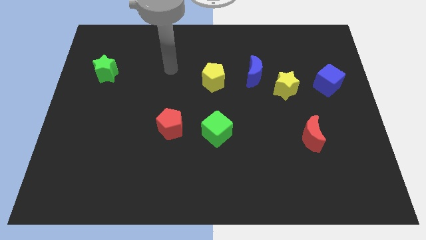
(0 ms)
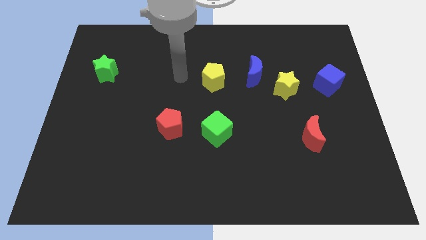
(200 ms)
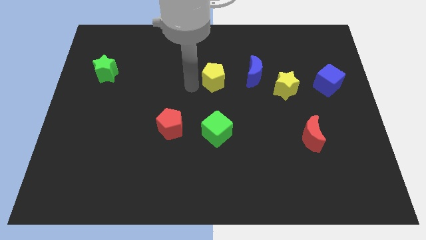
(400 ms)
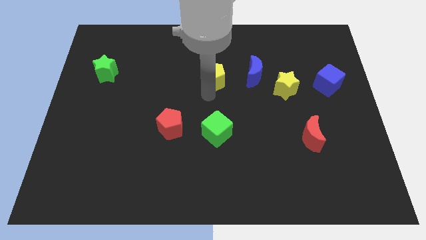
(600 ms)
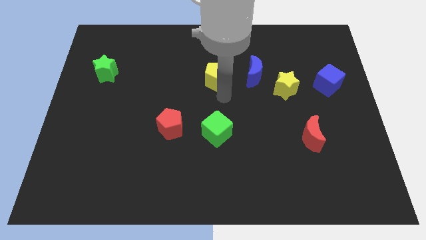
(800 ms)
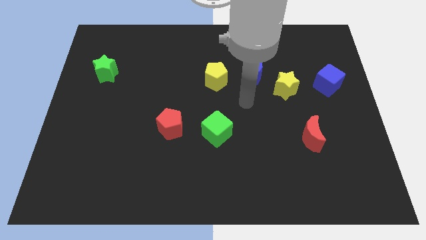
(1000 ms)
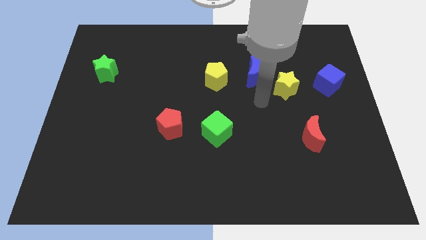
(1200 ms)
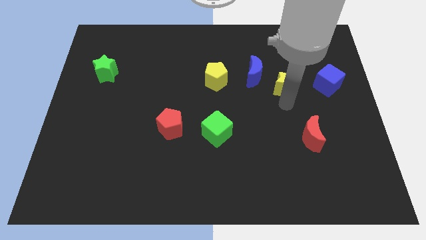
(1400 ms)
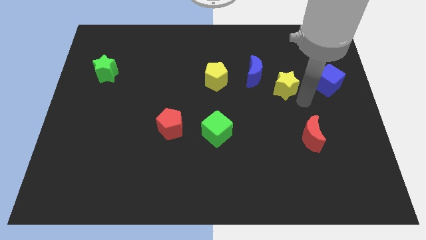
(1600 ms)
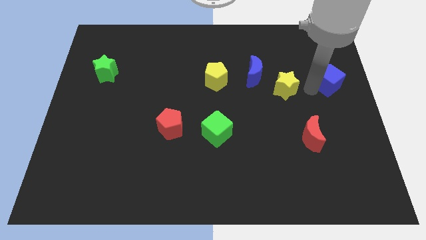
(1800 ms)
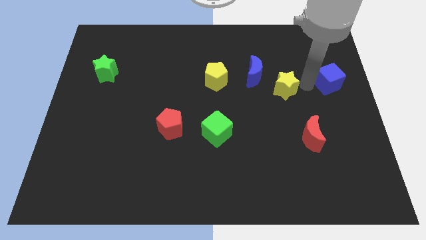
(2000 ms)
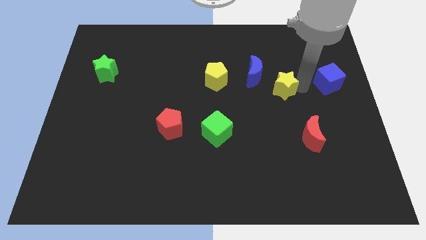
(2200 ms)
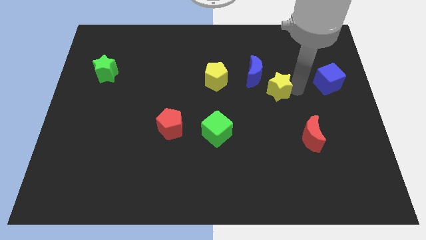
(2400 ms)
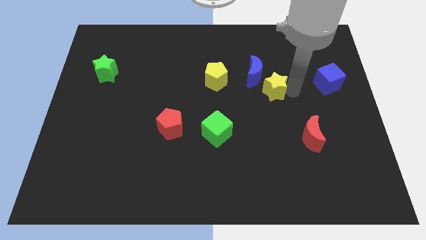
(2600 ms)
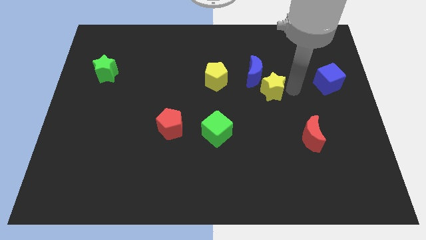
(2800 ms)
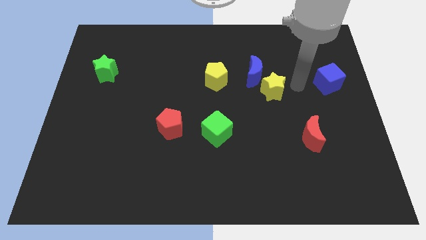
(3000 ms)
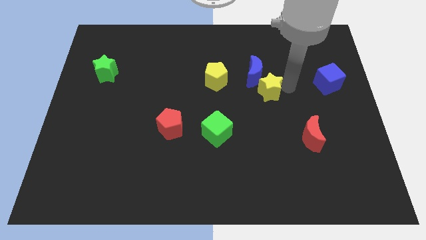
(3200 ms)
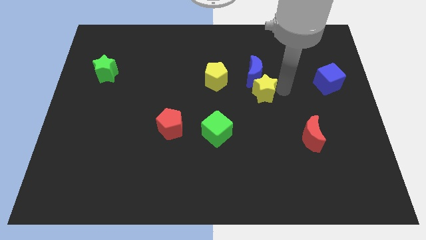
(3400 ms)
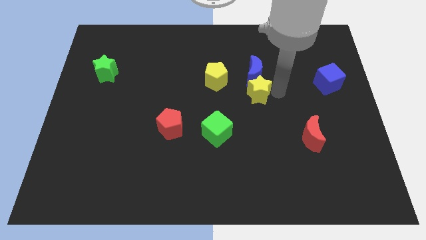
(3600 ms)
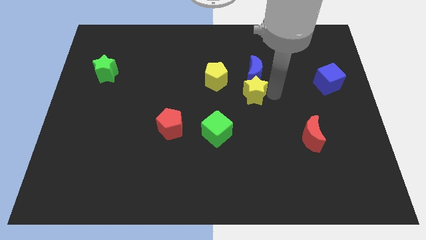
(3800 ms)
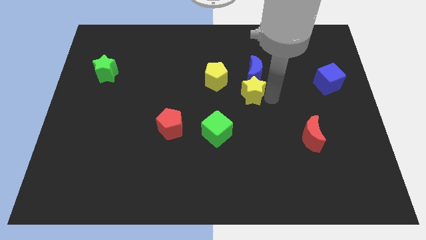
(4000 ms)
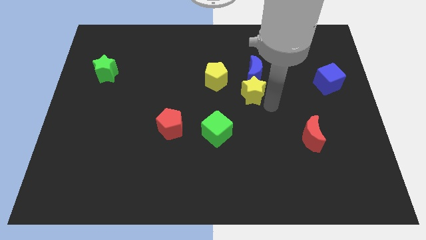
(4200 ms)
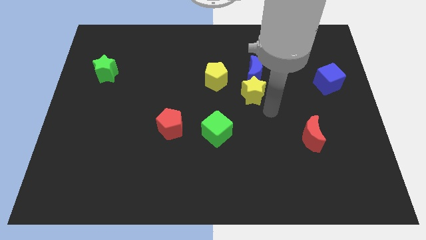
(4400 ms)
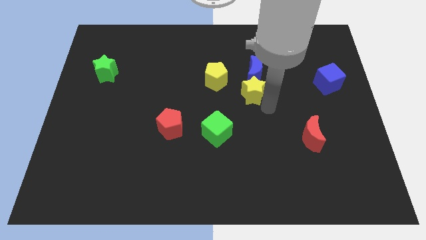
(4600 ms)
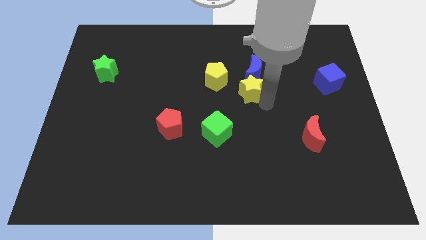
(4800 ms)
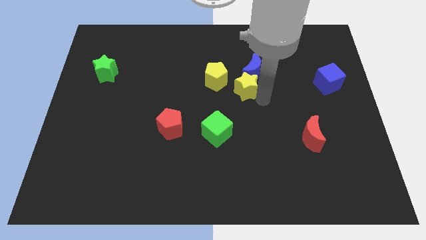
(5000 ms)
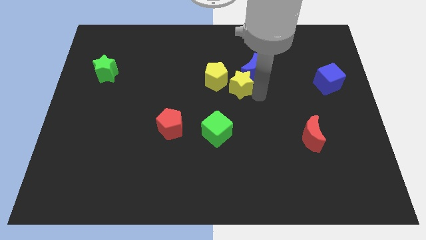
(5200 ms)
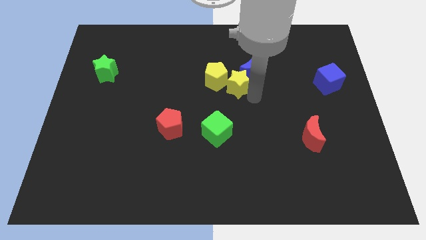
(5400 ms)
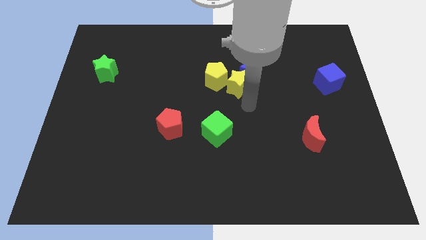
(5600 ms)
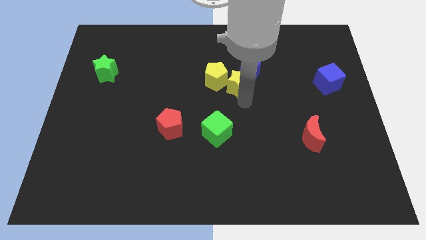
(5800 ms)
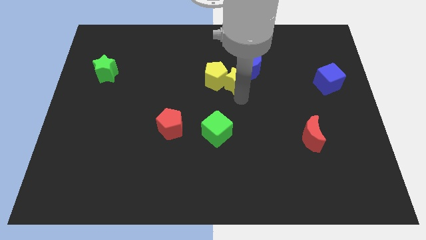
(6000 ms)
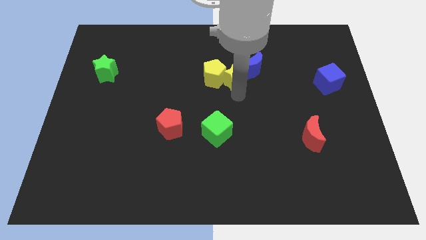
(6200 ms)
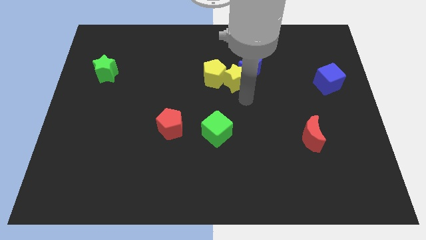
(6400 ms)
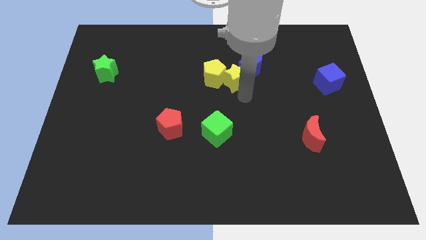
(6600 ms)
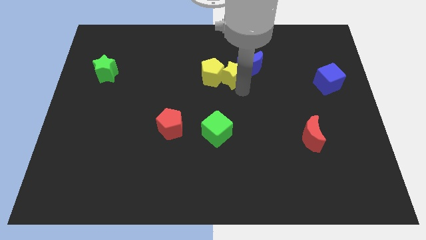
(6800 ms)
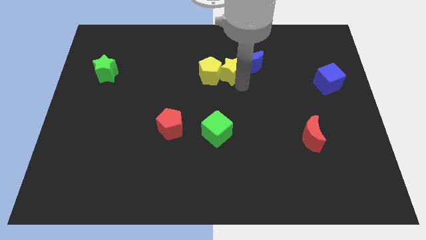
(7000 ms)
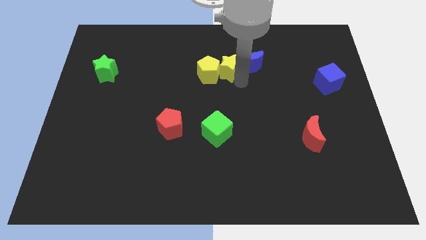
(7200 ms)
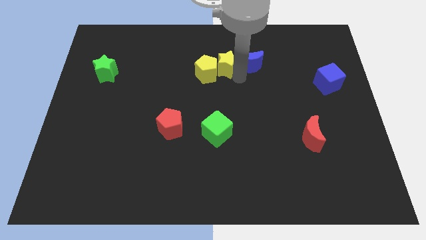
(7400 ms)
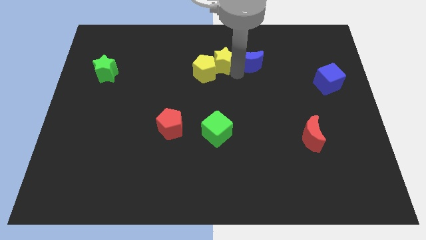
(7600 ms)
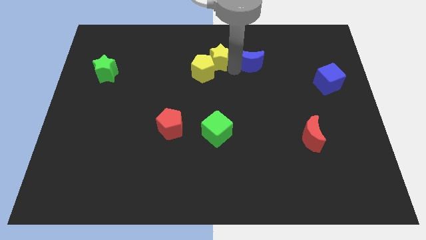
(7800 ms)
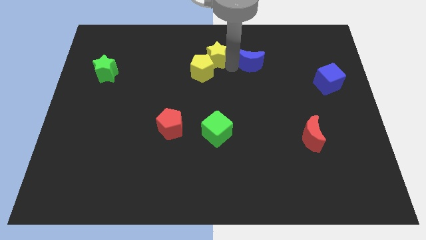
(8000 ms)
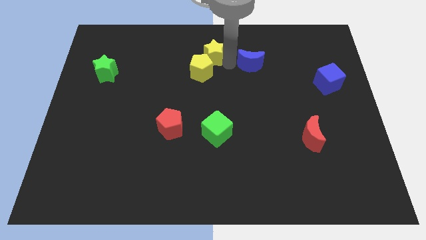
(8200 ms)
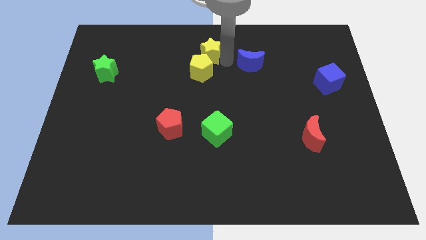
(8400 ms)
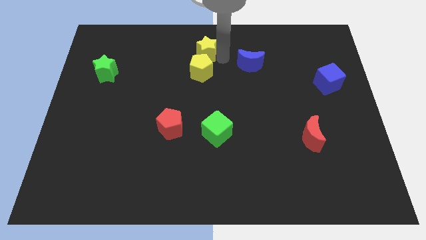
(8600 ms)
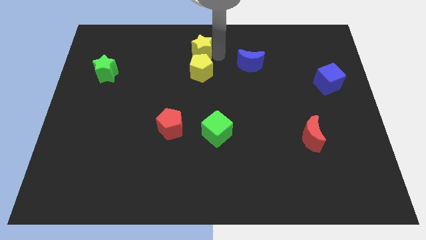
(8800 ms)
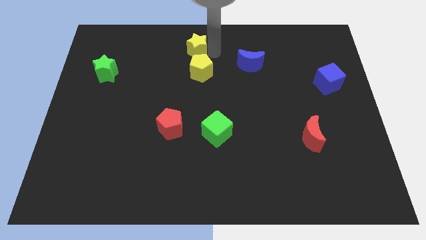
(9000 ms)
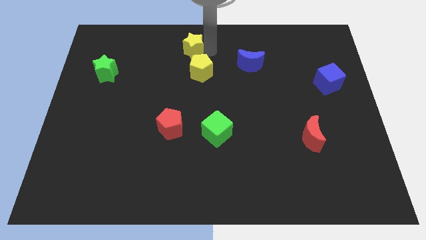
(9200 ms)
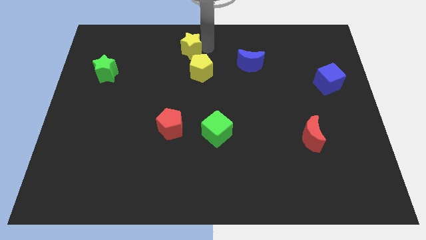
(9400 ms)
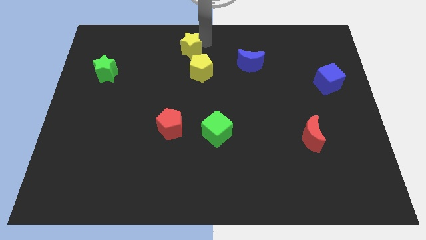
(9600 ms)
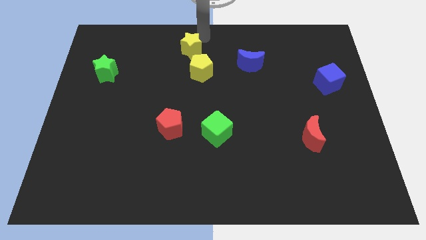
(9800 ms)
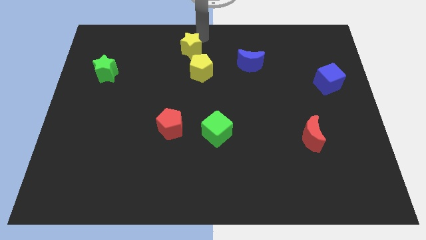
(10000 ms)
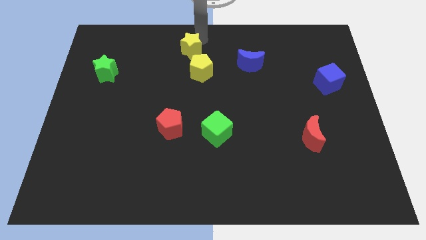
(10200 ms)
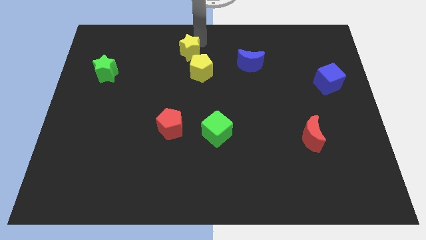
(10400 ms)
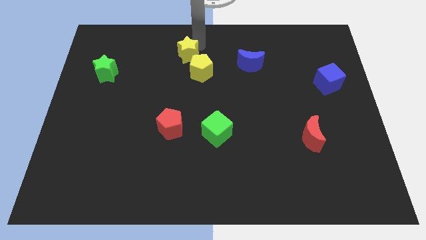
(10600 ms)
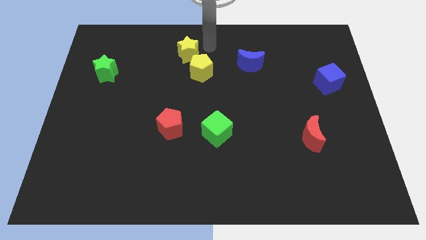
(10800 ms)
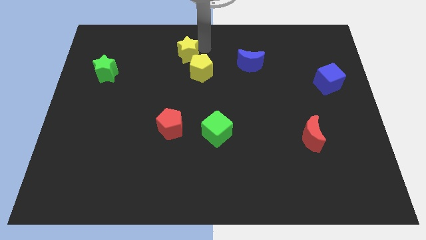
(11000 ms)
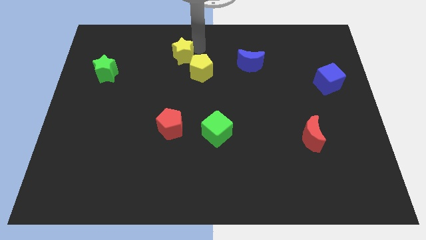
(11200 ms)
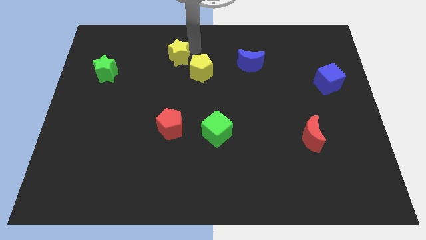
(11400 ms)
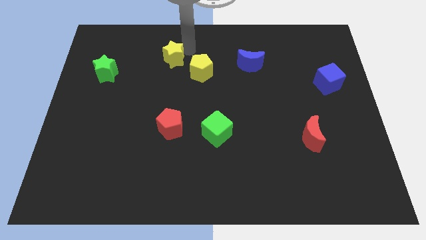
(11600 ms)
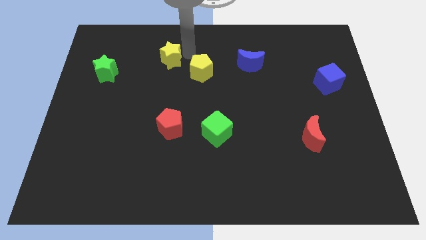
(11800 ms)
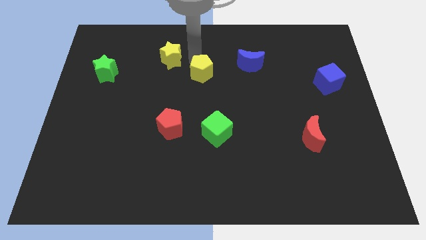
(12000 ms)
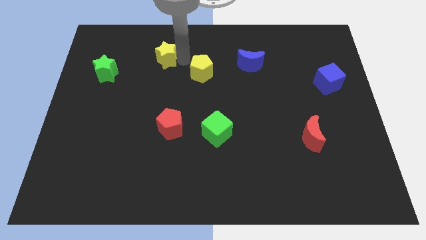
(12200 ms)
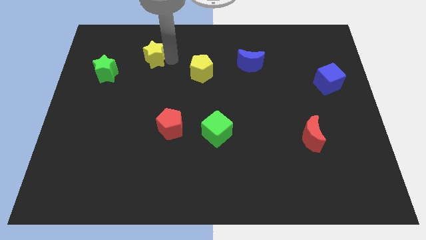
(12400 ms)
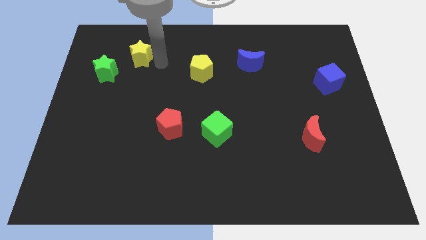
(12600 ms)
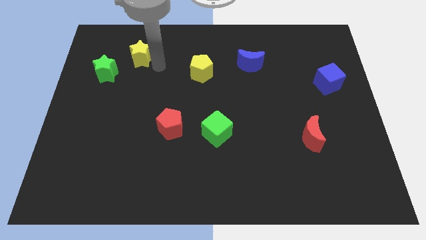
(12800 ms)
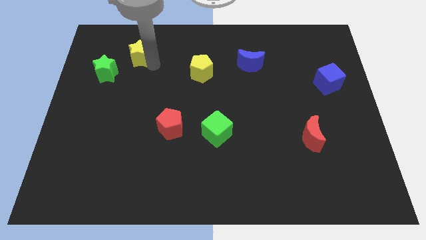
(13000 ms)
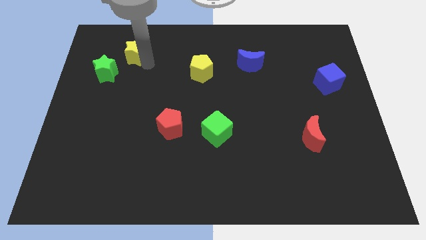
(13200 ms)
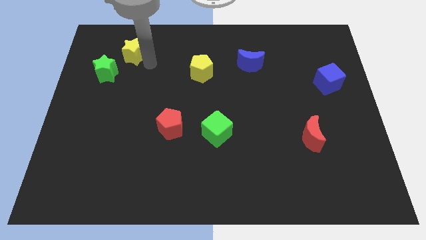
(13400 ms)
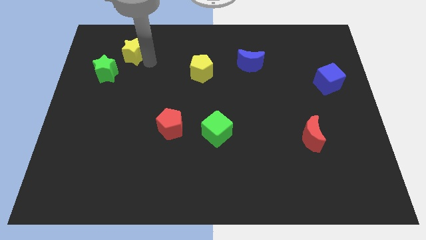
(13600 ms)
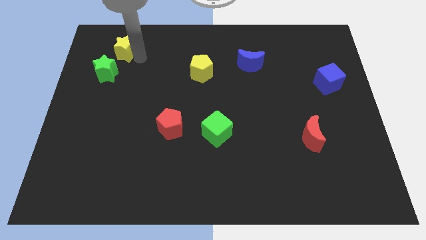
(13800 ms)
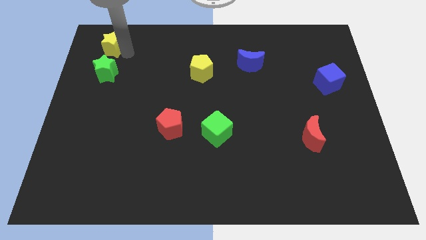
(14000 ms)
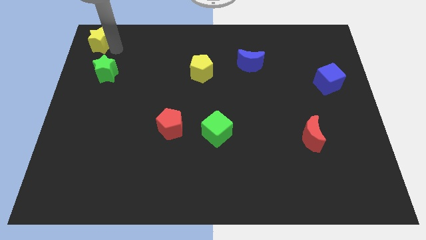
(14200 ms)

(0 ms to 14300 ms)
push the yellow star to the top left corner
